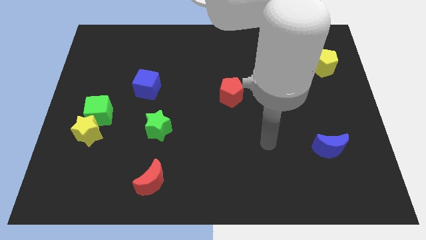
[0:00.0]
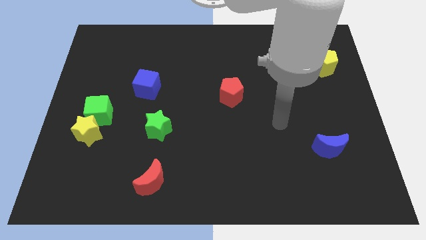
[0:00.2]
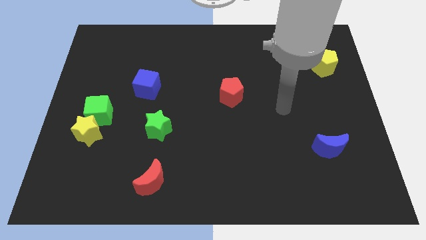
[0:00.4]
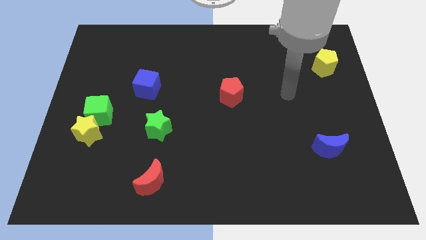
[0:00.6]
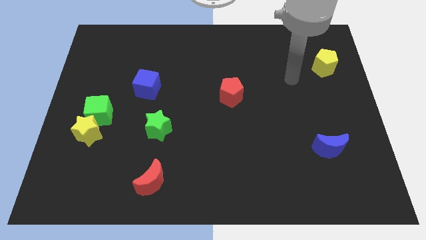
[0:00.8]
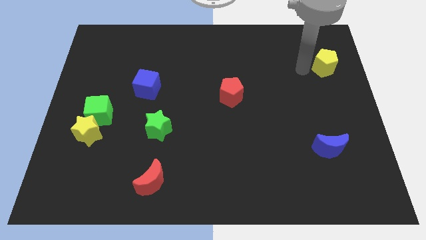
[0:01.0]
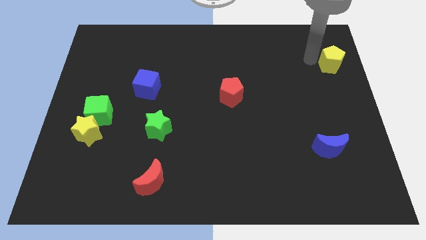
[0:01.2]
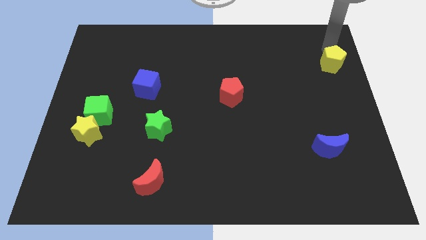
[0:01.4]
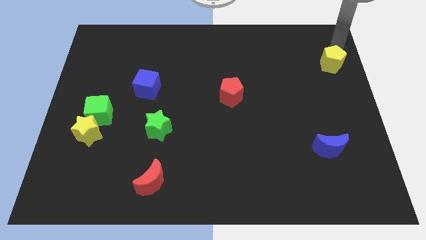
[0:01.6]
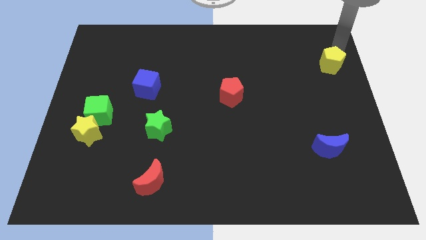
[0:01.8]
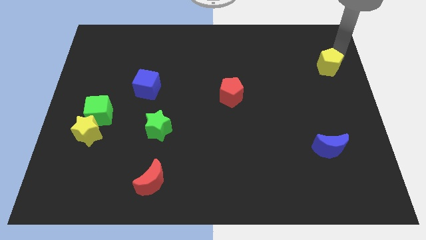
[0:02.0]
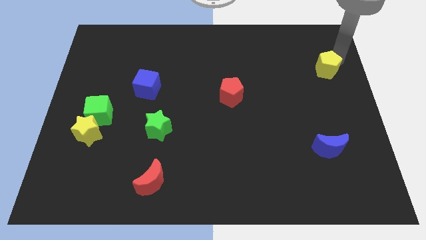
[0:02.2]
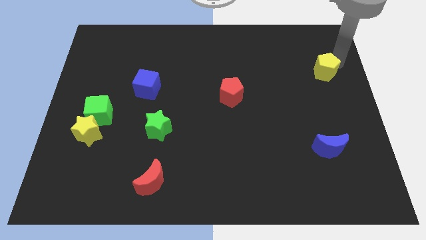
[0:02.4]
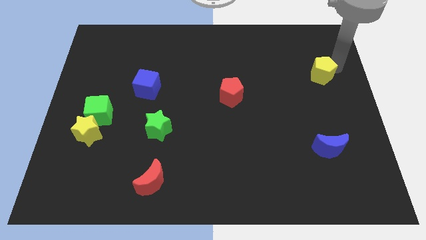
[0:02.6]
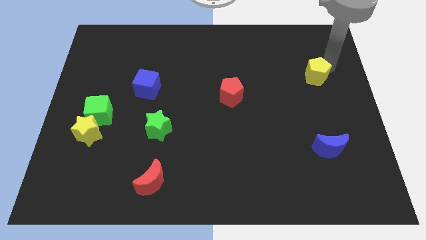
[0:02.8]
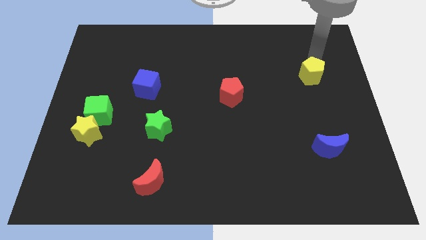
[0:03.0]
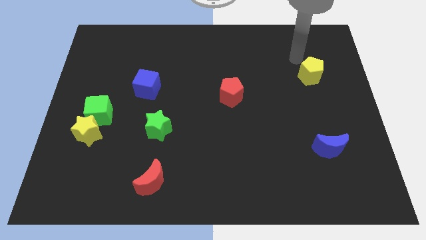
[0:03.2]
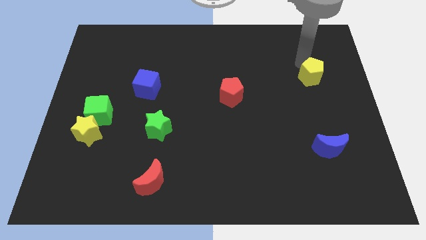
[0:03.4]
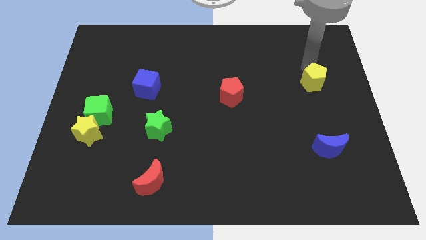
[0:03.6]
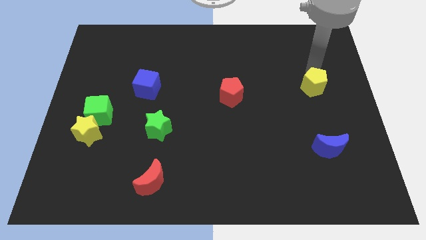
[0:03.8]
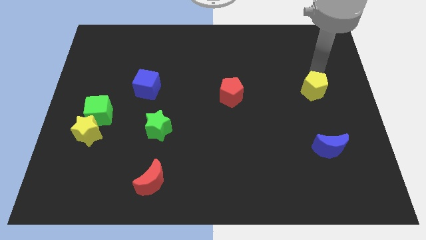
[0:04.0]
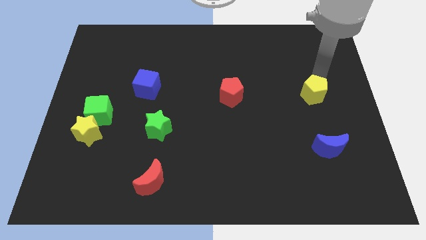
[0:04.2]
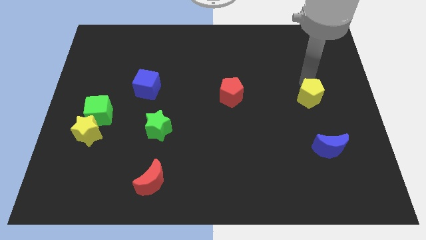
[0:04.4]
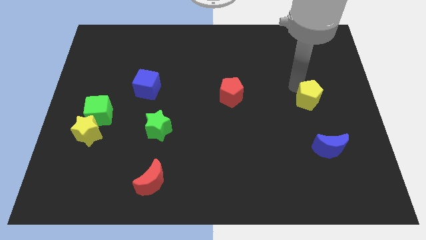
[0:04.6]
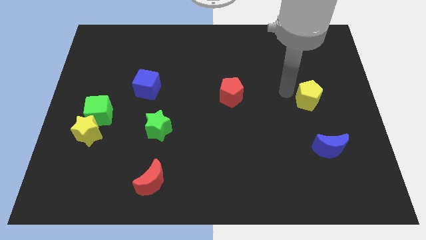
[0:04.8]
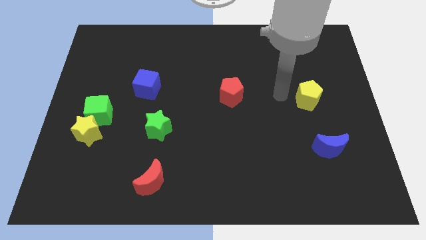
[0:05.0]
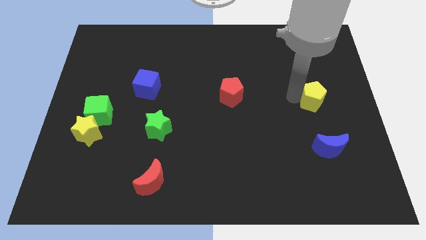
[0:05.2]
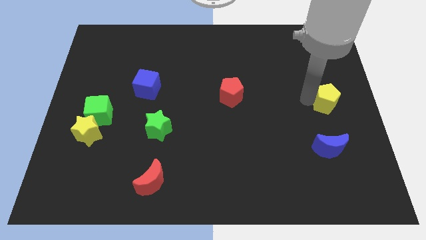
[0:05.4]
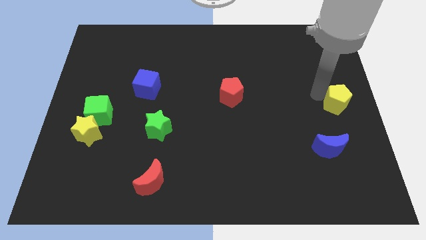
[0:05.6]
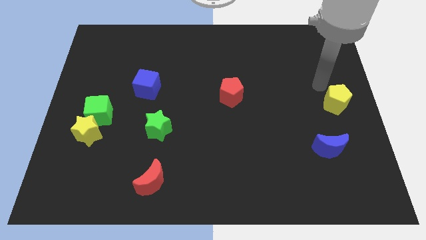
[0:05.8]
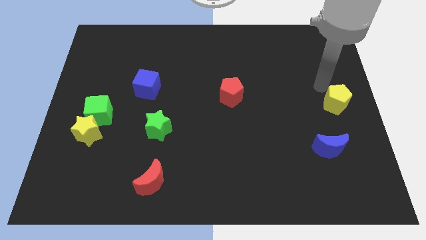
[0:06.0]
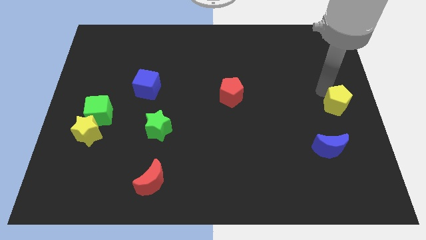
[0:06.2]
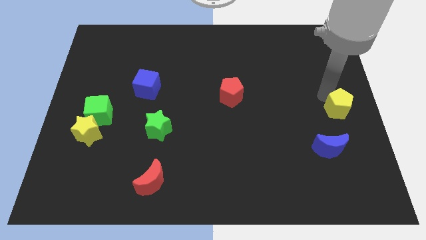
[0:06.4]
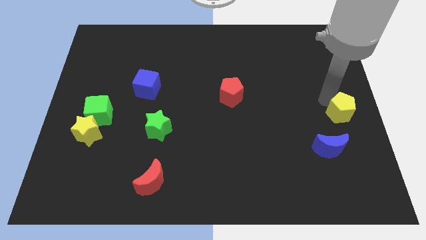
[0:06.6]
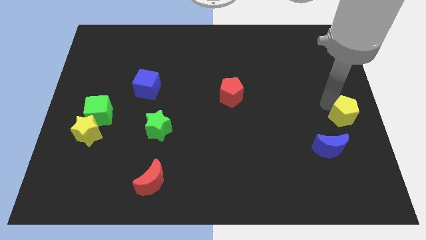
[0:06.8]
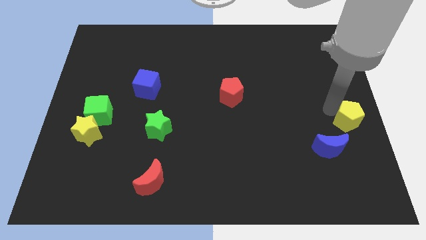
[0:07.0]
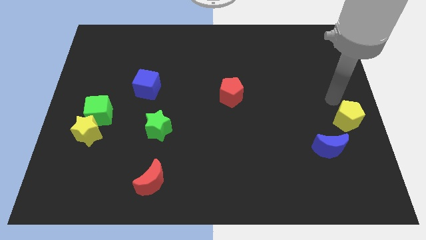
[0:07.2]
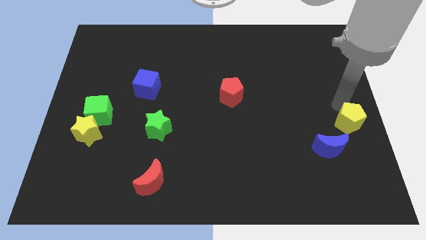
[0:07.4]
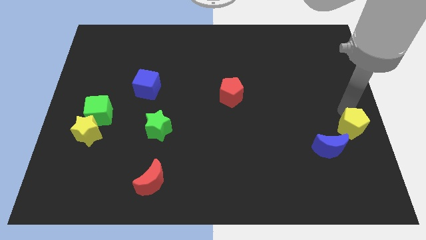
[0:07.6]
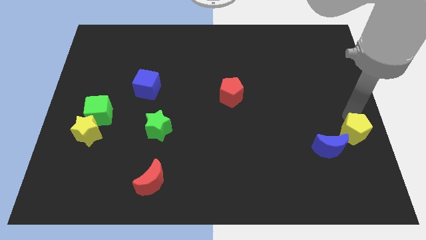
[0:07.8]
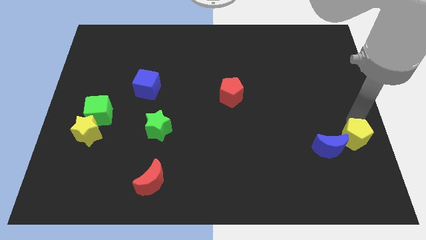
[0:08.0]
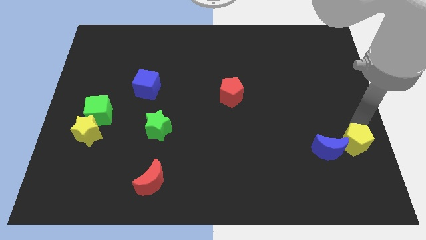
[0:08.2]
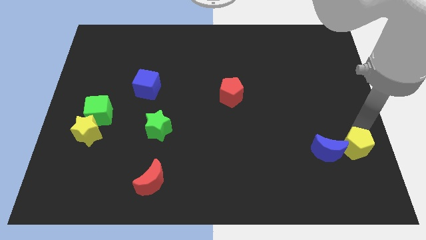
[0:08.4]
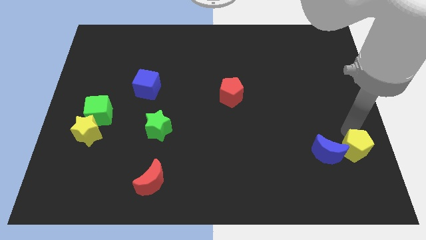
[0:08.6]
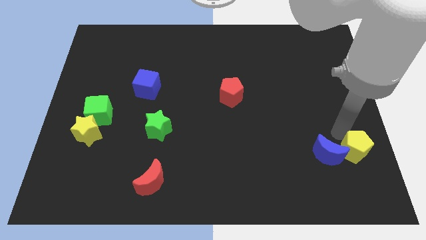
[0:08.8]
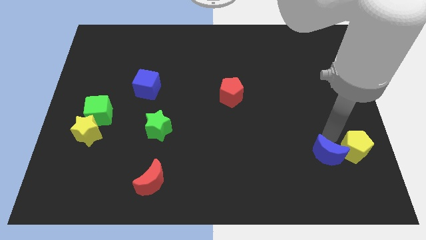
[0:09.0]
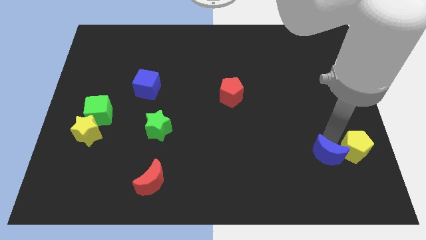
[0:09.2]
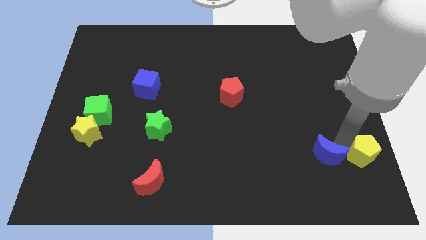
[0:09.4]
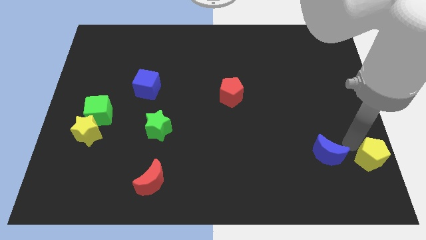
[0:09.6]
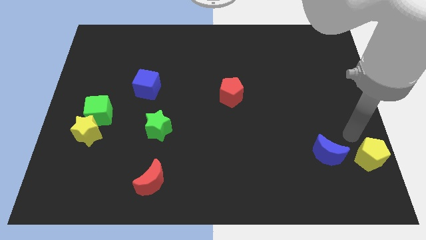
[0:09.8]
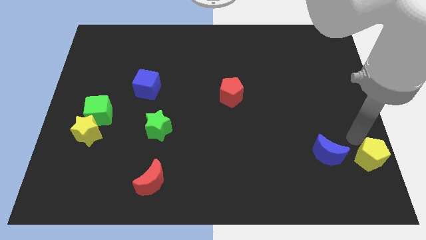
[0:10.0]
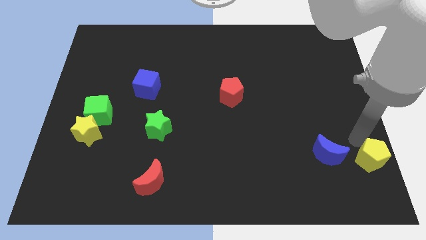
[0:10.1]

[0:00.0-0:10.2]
put the yellow pentagon to the bottom right corner

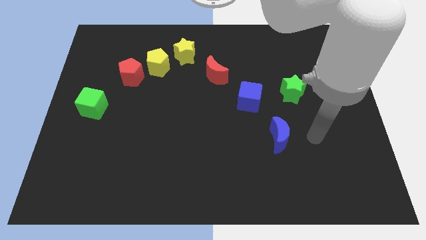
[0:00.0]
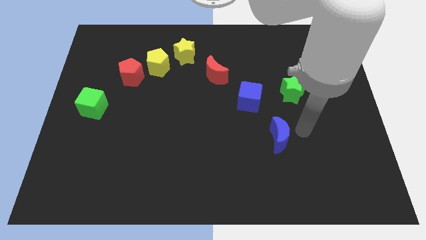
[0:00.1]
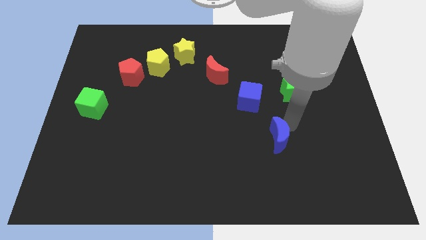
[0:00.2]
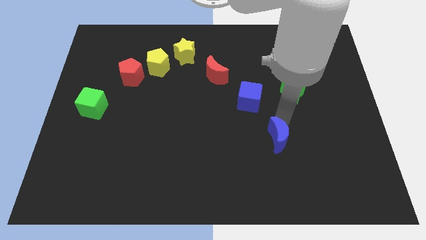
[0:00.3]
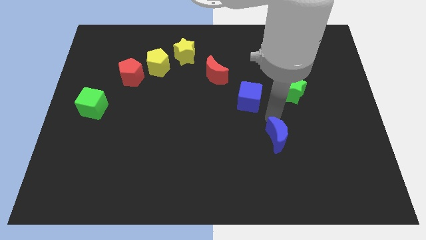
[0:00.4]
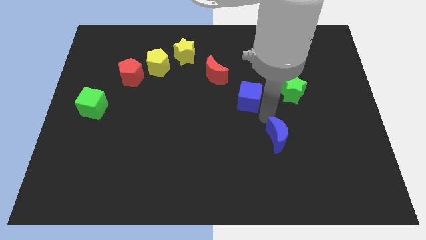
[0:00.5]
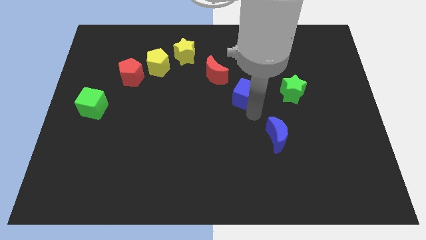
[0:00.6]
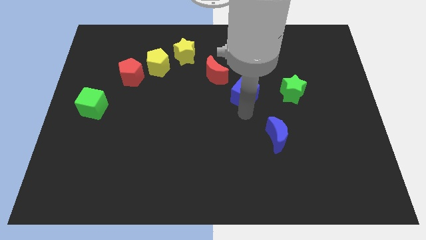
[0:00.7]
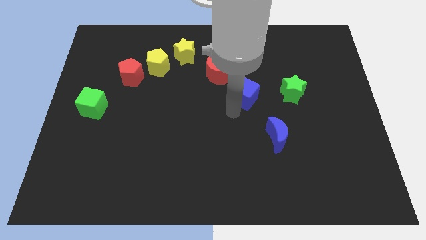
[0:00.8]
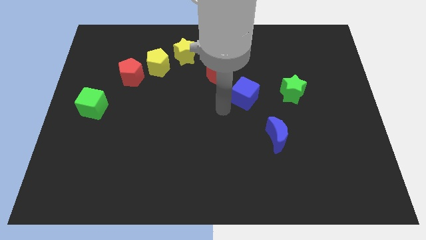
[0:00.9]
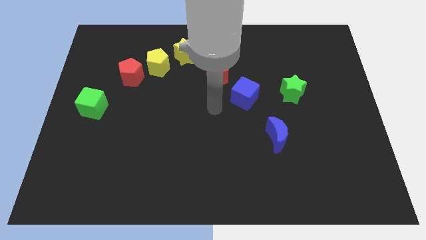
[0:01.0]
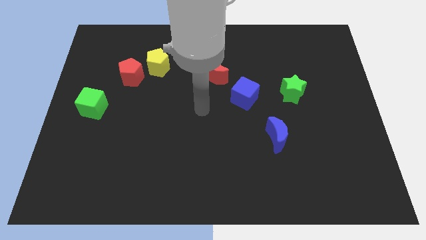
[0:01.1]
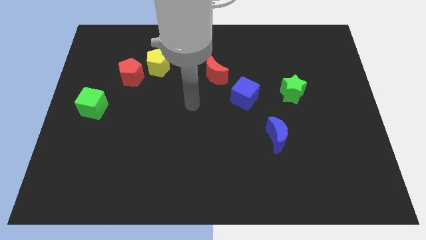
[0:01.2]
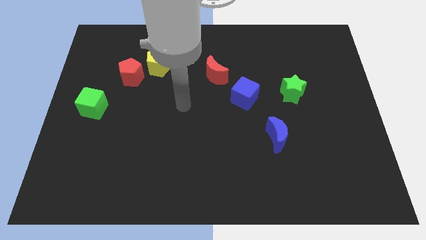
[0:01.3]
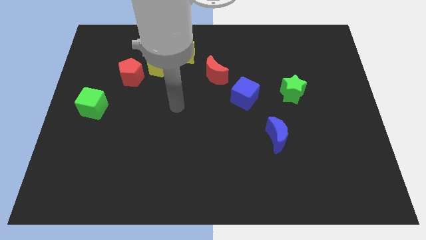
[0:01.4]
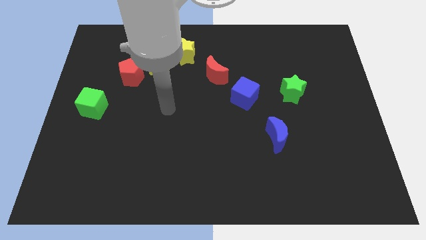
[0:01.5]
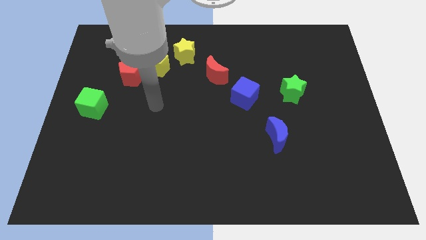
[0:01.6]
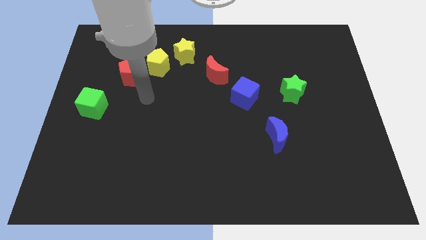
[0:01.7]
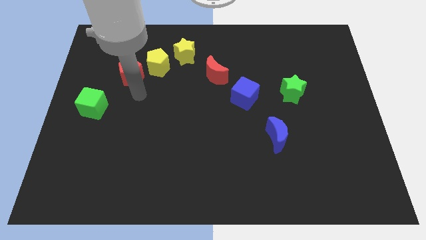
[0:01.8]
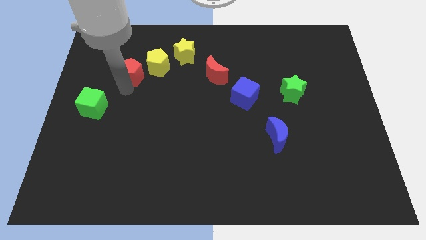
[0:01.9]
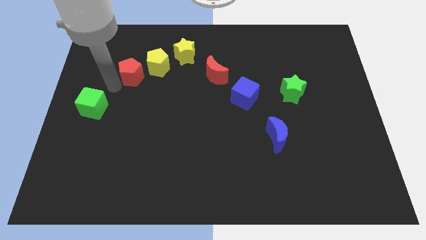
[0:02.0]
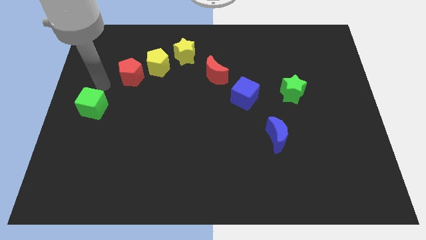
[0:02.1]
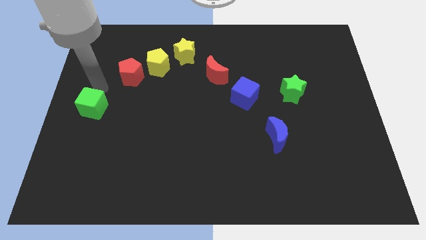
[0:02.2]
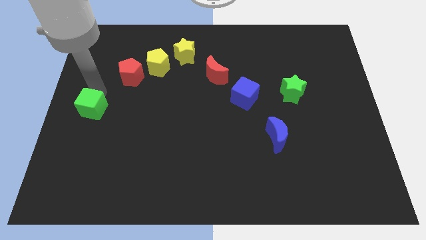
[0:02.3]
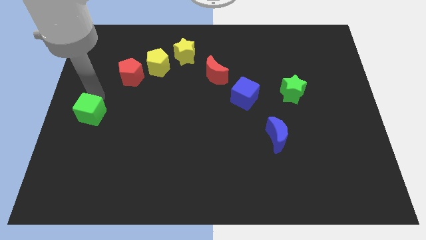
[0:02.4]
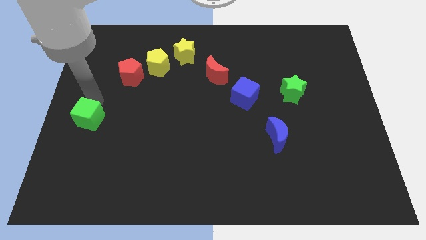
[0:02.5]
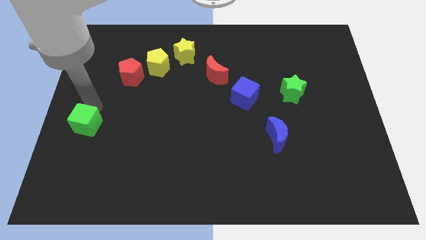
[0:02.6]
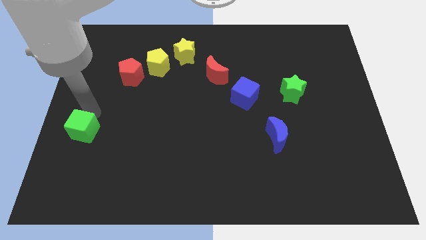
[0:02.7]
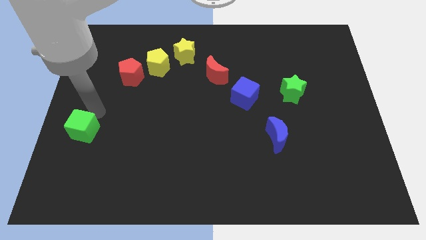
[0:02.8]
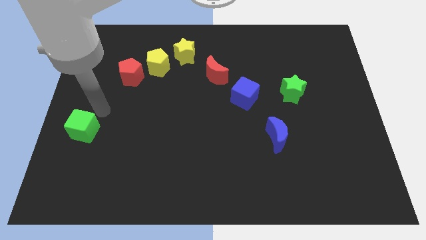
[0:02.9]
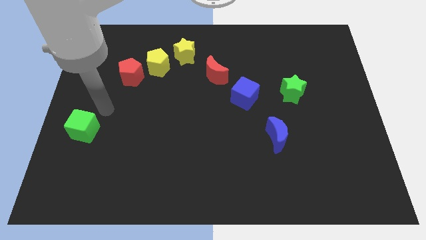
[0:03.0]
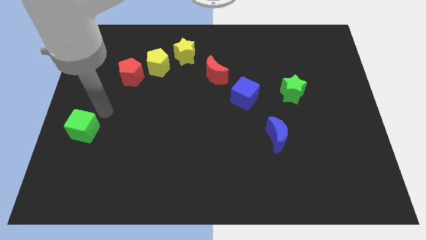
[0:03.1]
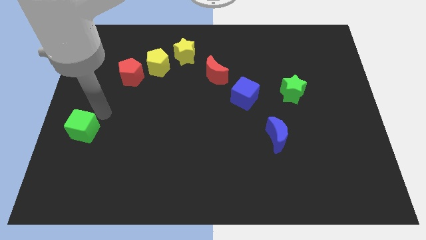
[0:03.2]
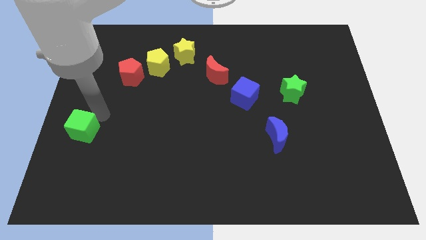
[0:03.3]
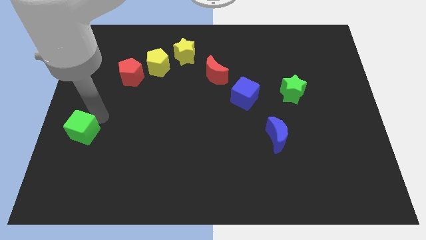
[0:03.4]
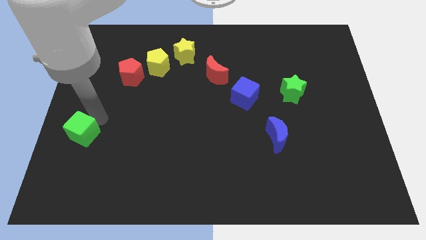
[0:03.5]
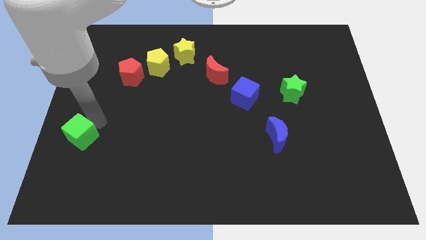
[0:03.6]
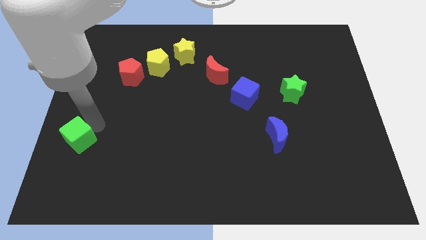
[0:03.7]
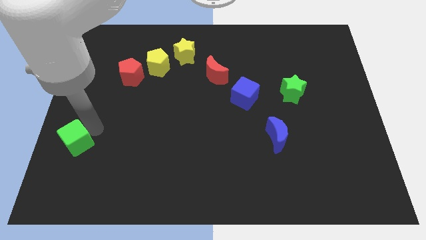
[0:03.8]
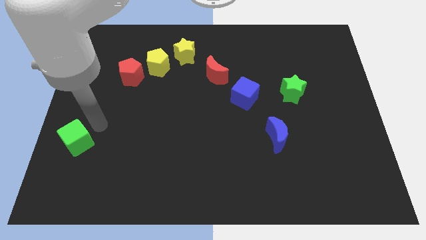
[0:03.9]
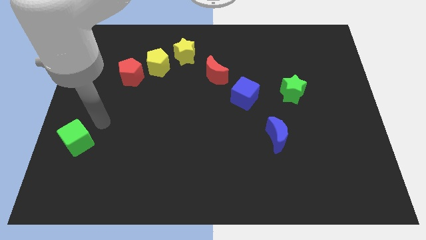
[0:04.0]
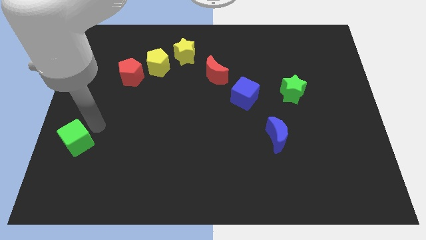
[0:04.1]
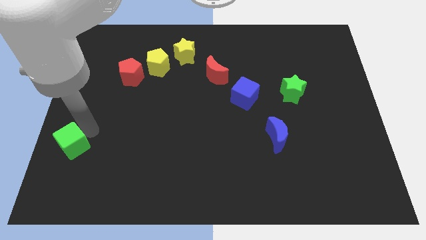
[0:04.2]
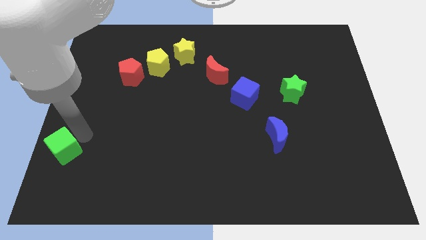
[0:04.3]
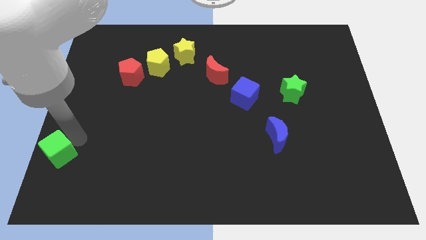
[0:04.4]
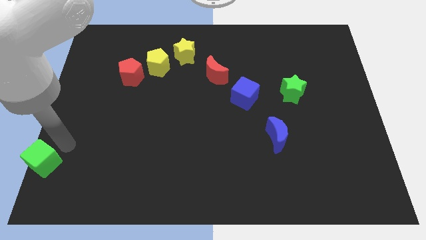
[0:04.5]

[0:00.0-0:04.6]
put the green cube to the lower left corner
